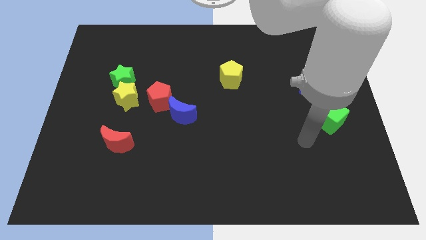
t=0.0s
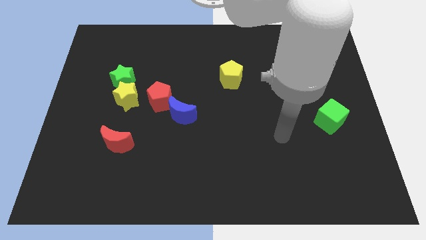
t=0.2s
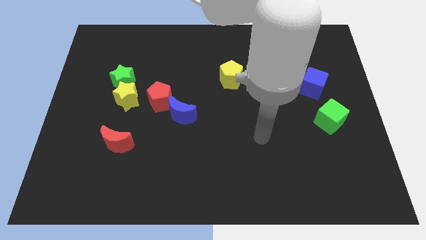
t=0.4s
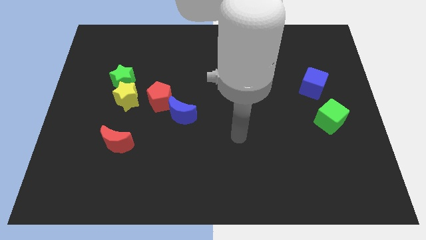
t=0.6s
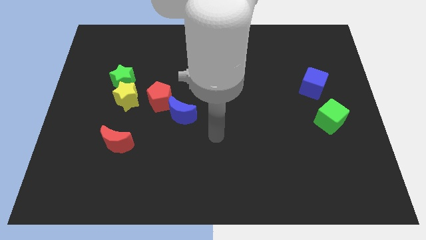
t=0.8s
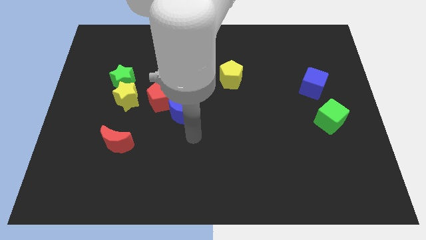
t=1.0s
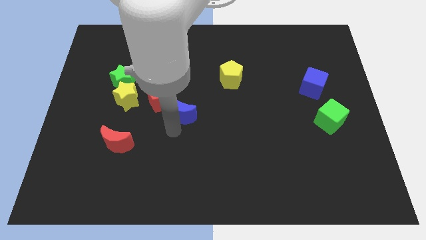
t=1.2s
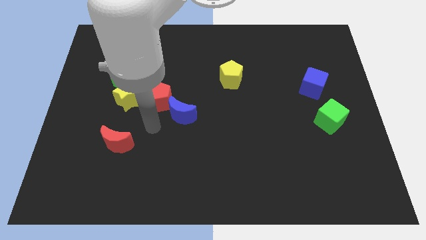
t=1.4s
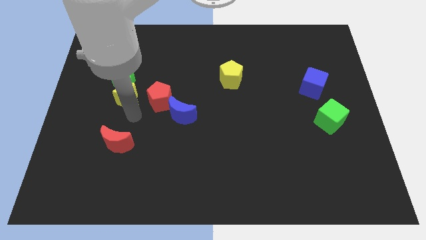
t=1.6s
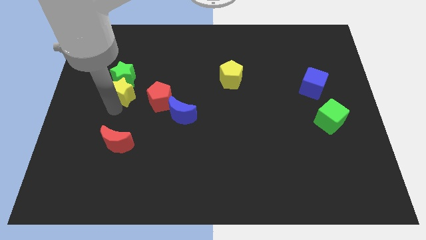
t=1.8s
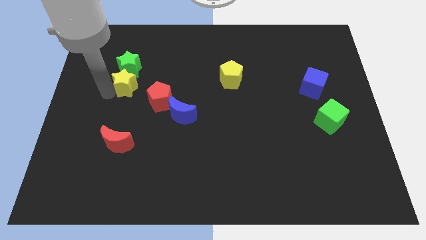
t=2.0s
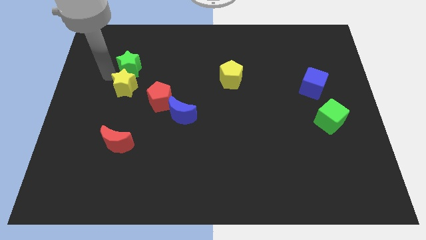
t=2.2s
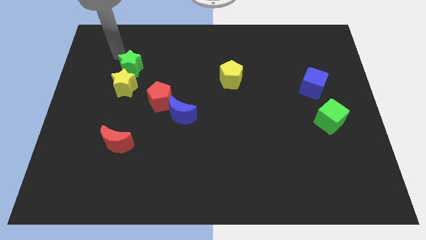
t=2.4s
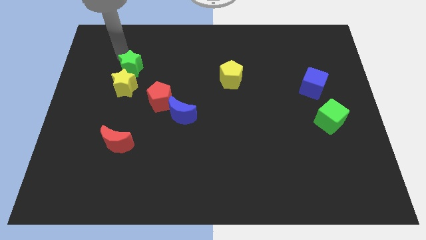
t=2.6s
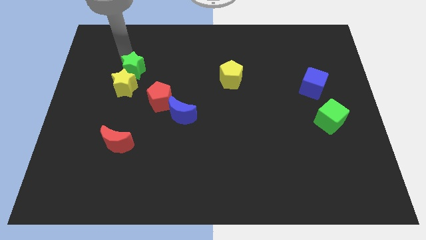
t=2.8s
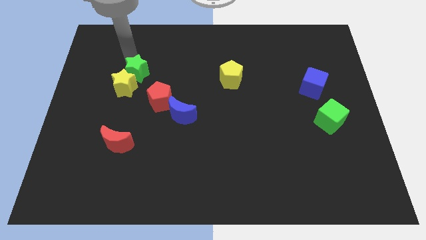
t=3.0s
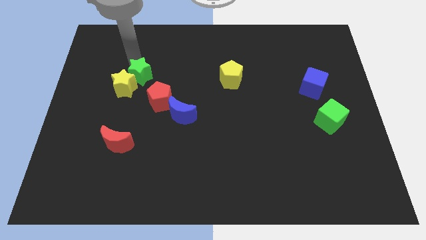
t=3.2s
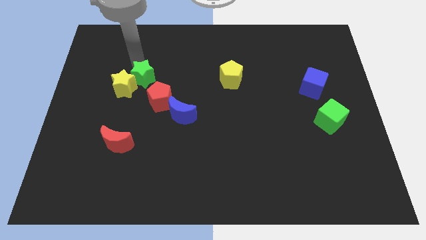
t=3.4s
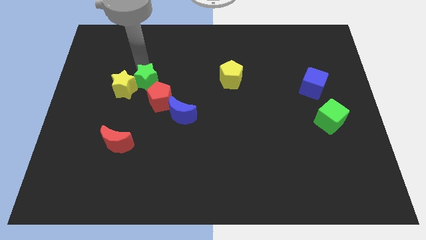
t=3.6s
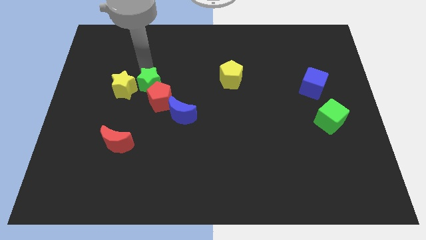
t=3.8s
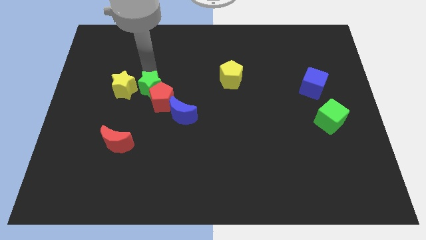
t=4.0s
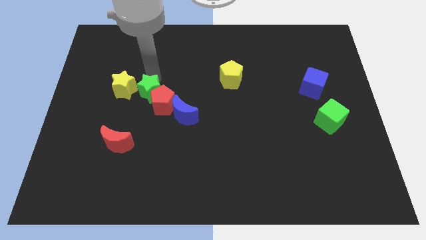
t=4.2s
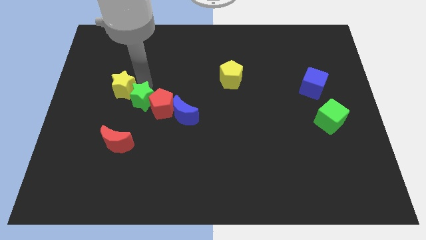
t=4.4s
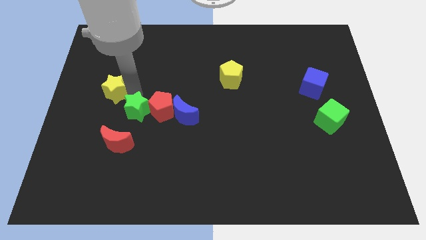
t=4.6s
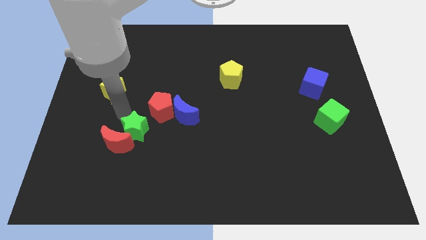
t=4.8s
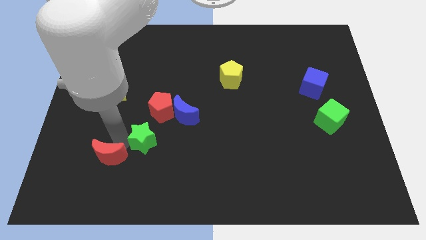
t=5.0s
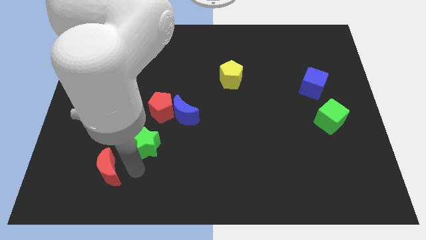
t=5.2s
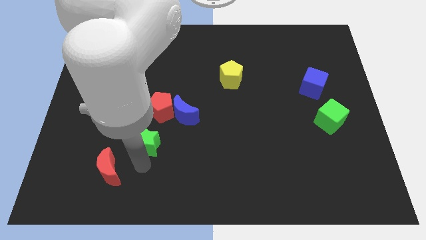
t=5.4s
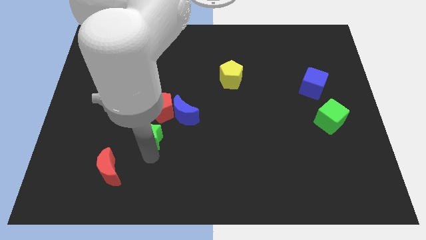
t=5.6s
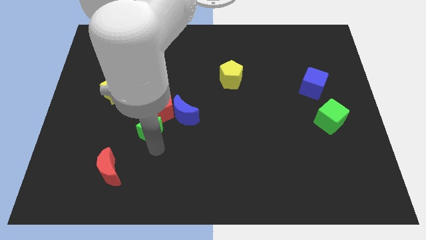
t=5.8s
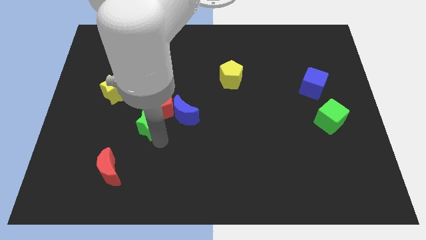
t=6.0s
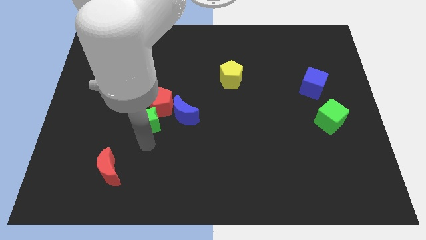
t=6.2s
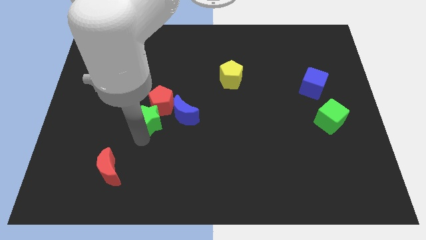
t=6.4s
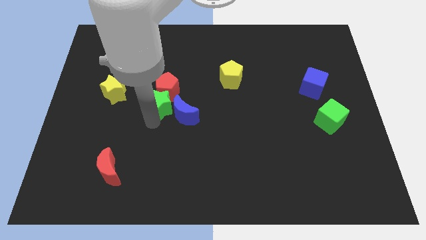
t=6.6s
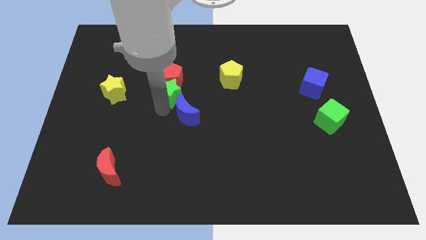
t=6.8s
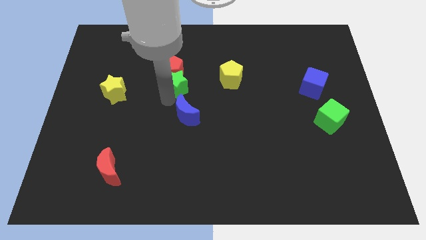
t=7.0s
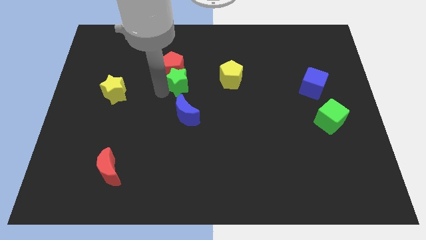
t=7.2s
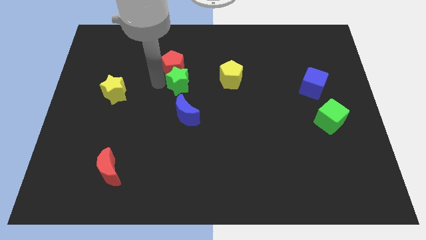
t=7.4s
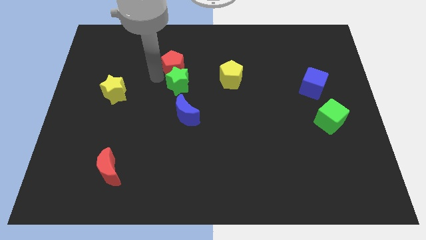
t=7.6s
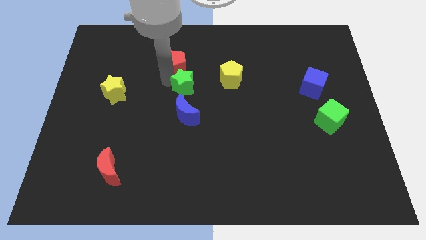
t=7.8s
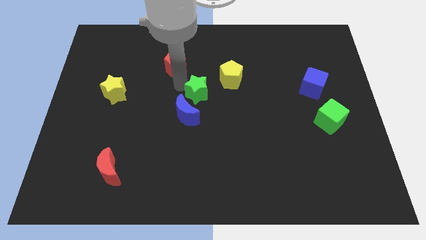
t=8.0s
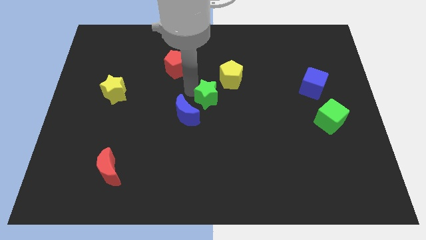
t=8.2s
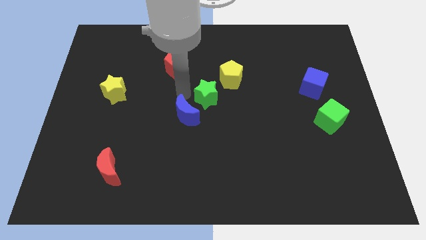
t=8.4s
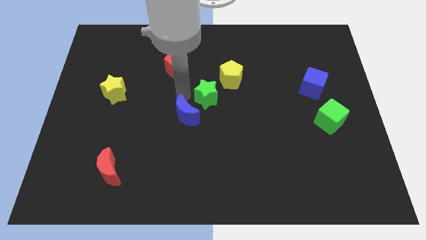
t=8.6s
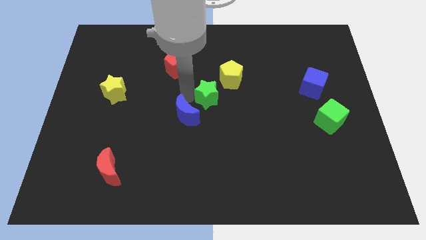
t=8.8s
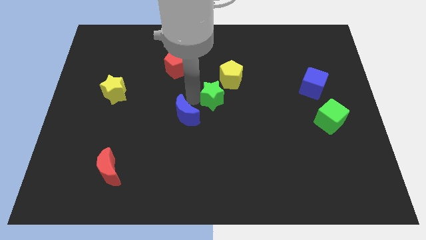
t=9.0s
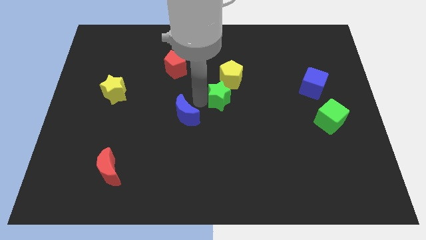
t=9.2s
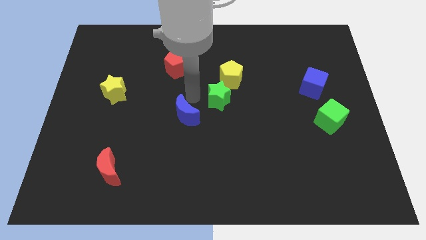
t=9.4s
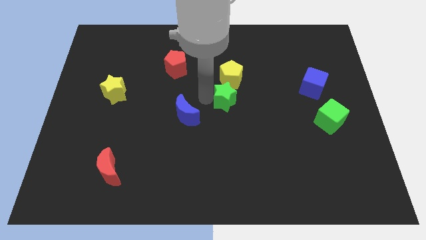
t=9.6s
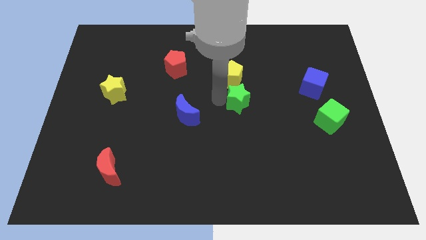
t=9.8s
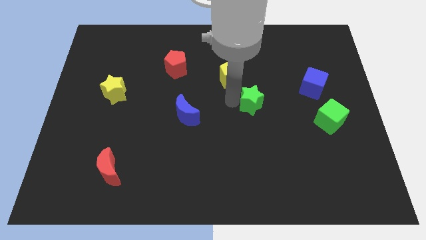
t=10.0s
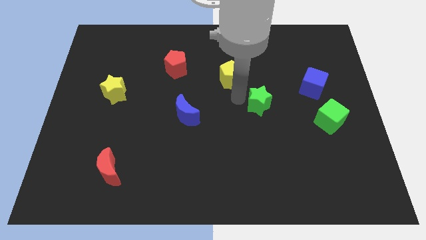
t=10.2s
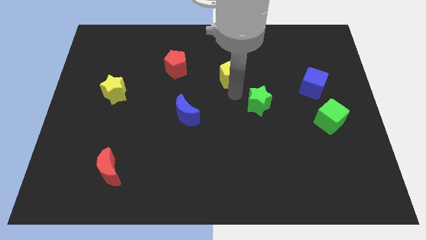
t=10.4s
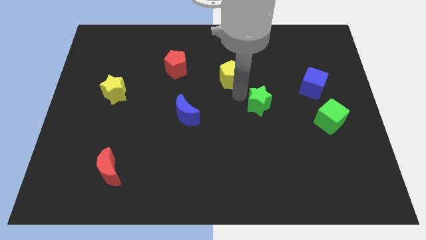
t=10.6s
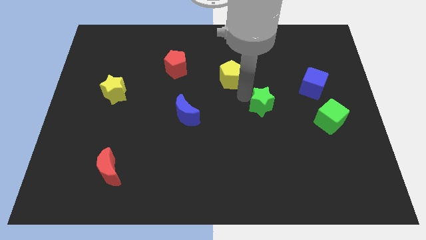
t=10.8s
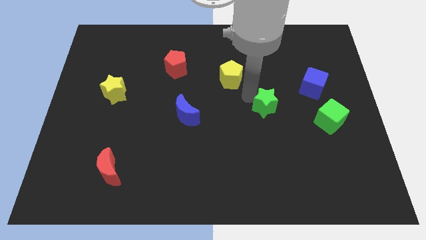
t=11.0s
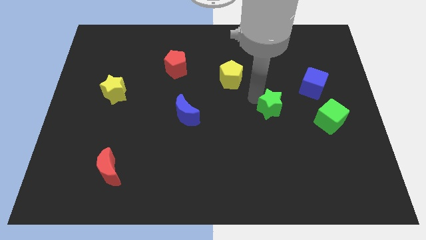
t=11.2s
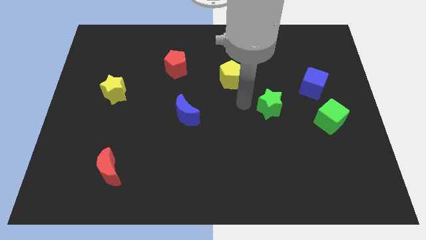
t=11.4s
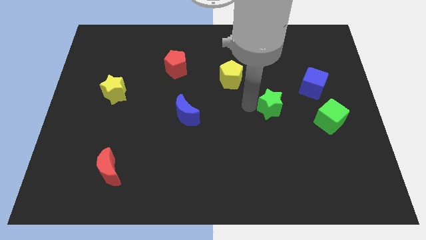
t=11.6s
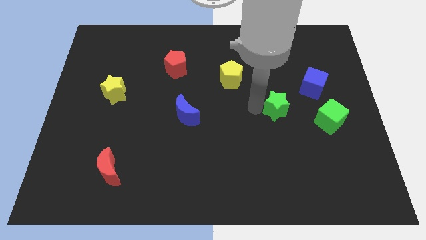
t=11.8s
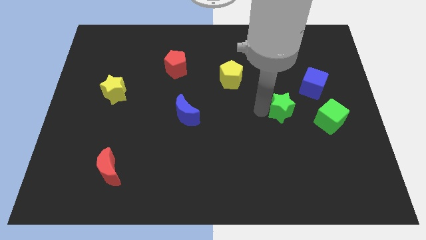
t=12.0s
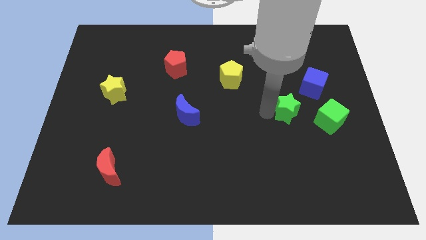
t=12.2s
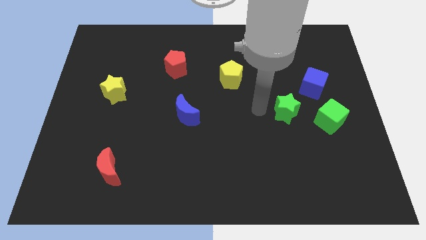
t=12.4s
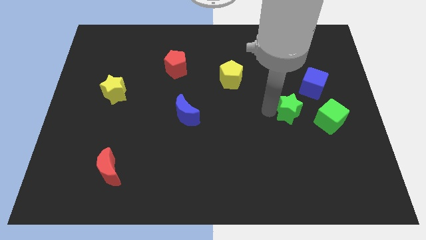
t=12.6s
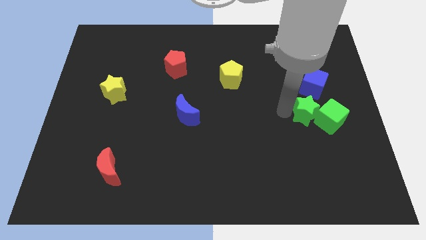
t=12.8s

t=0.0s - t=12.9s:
move the green star towards the green cube

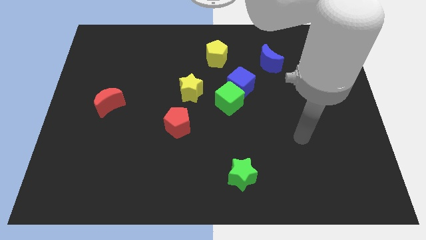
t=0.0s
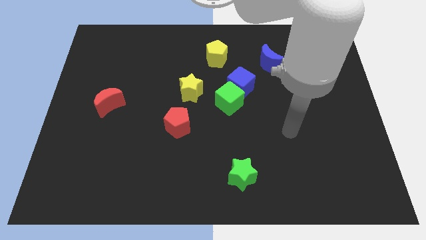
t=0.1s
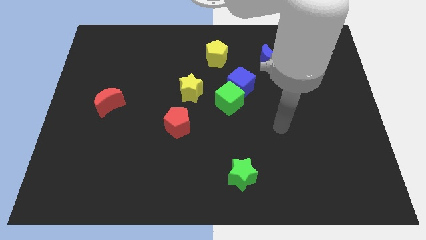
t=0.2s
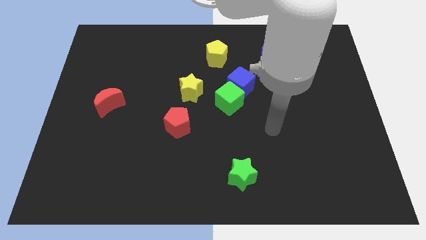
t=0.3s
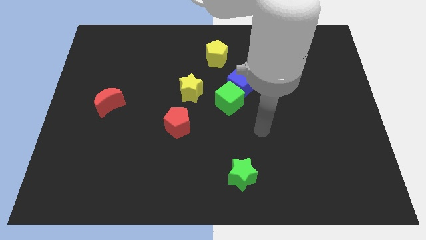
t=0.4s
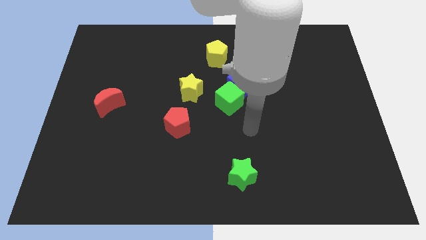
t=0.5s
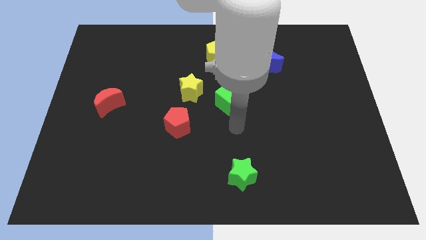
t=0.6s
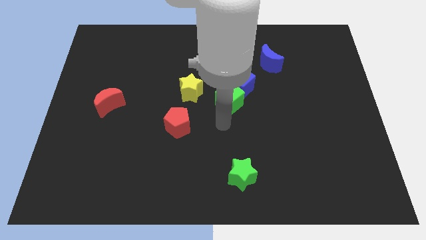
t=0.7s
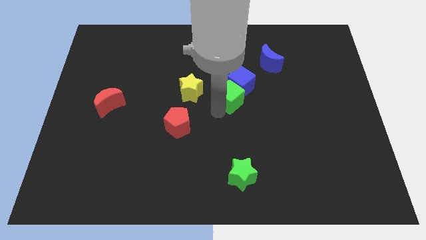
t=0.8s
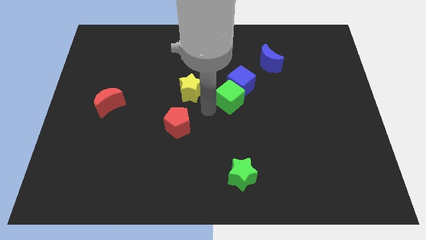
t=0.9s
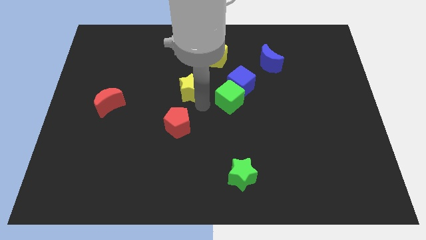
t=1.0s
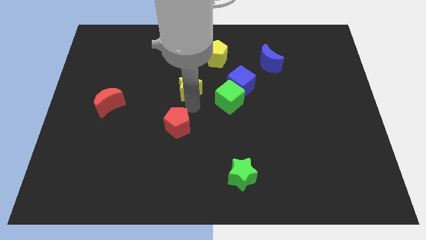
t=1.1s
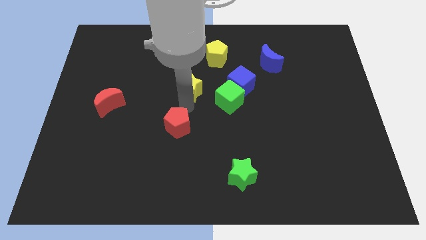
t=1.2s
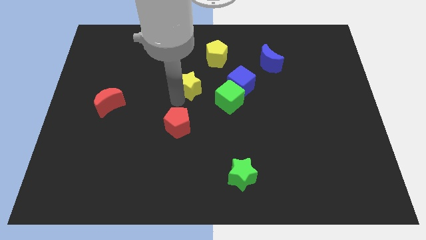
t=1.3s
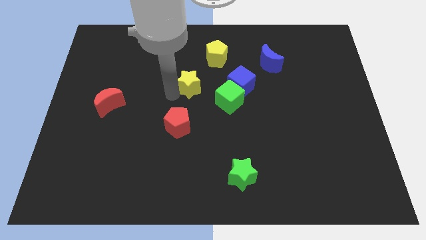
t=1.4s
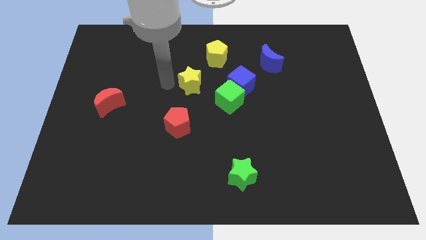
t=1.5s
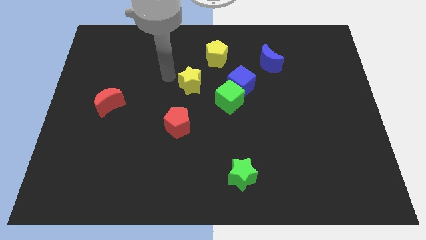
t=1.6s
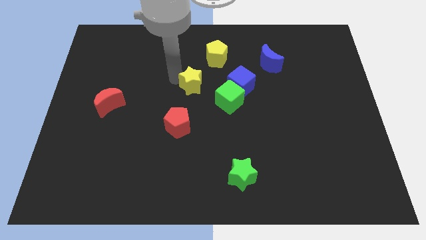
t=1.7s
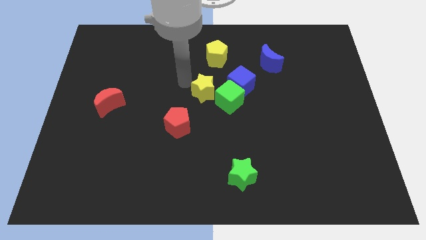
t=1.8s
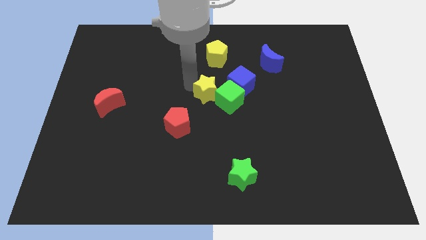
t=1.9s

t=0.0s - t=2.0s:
push the yellow star close to the green cube
